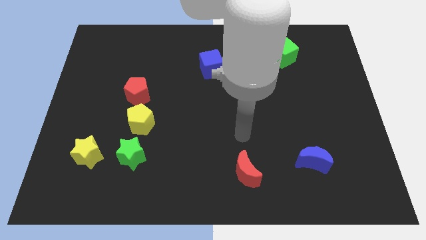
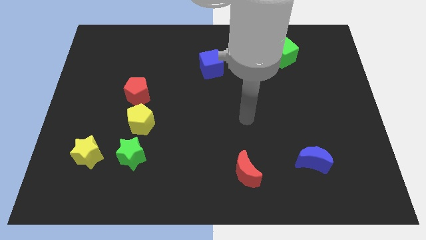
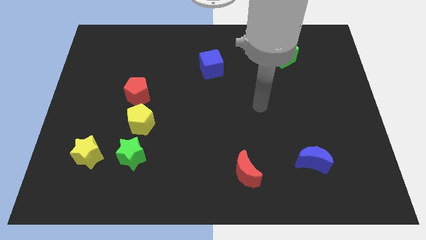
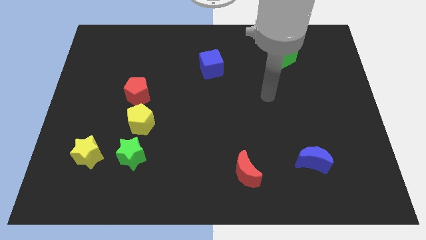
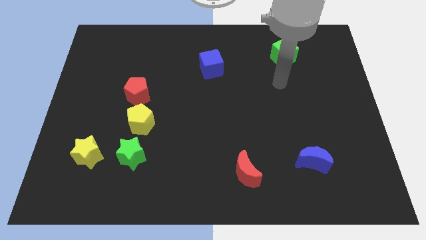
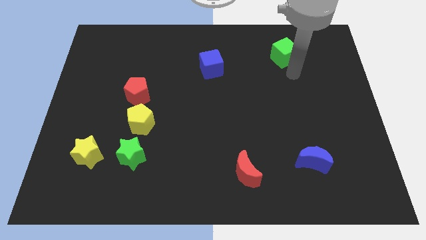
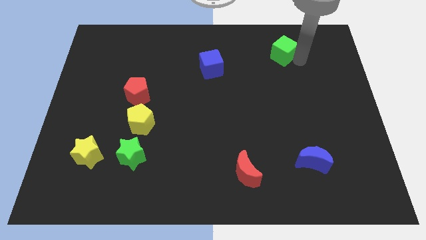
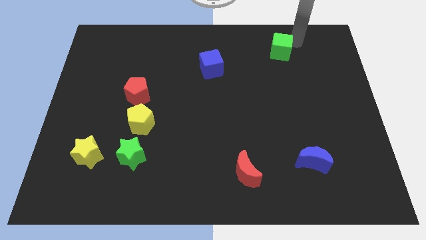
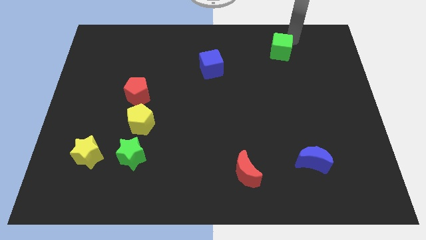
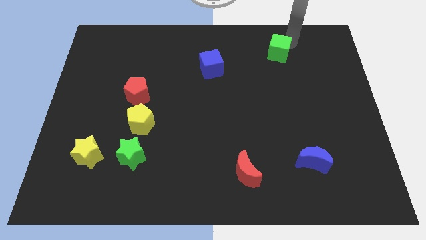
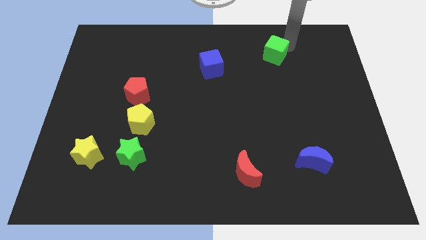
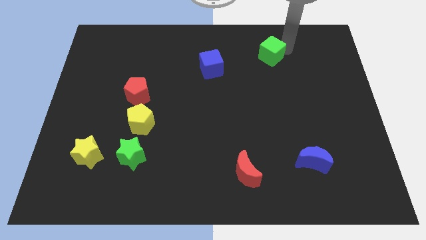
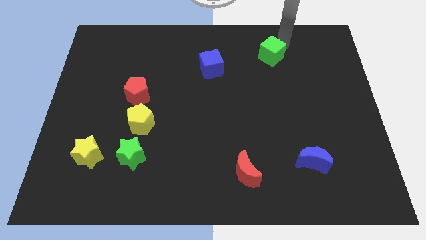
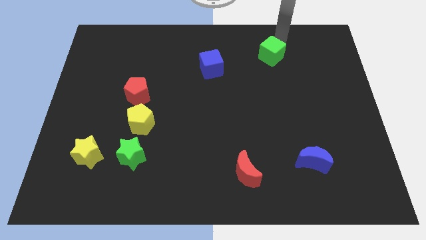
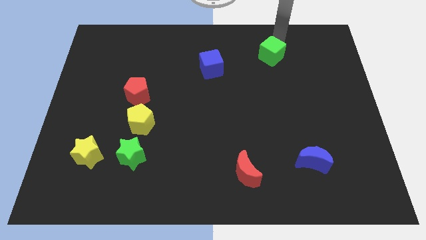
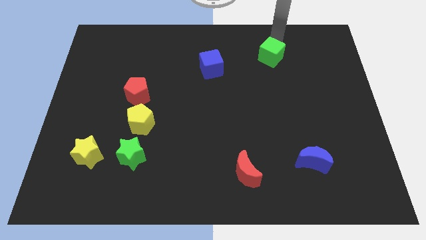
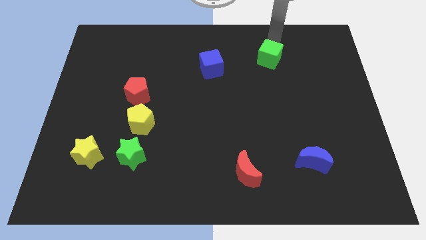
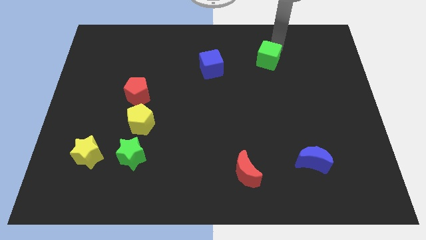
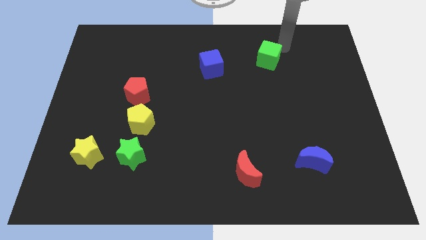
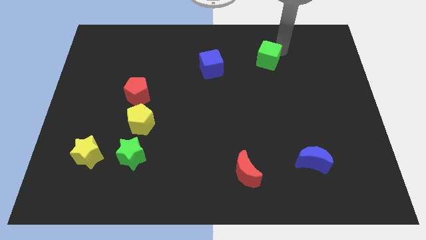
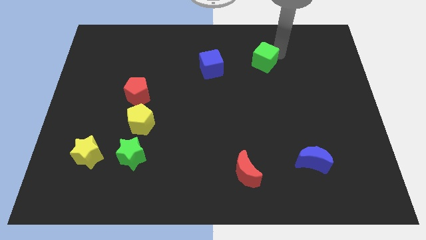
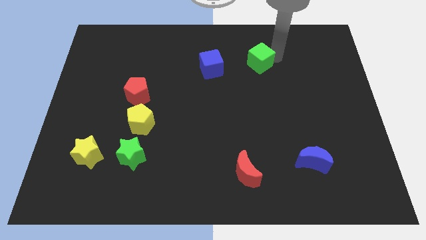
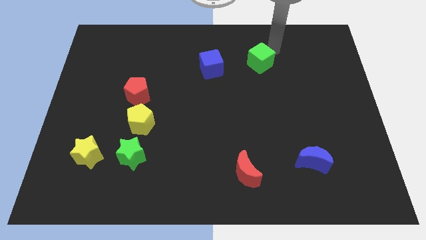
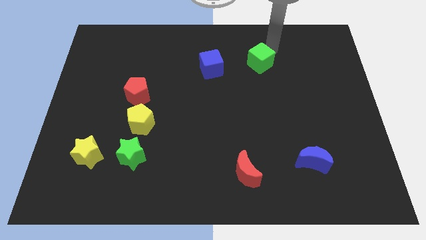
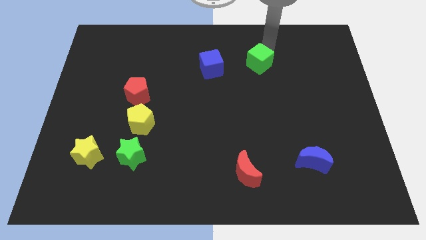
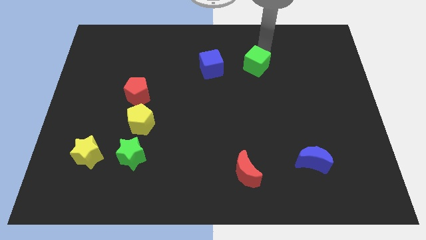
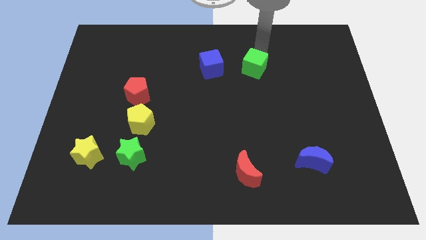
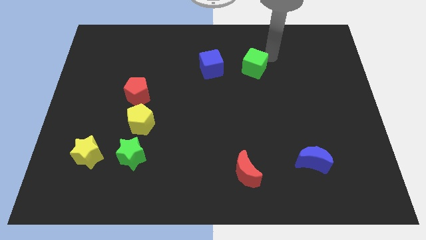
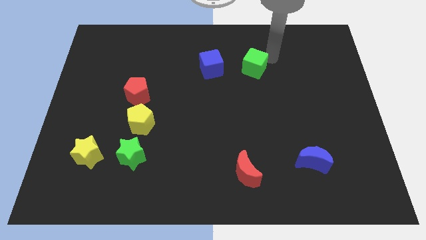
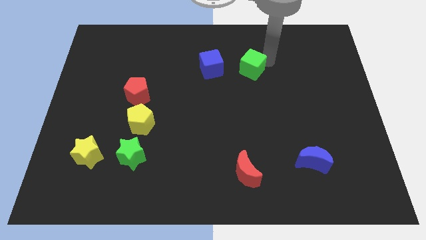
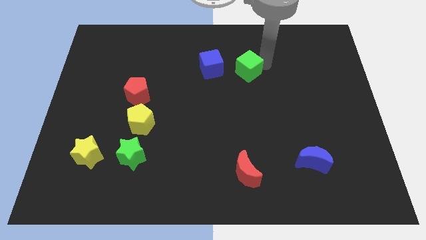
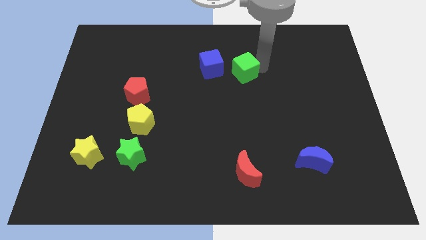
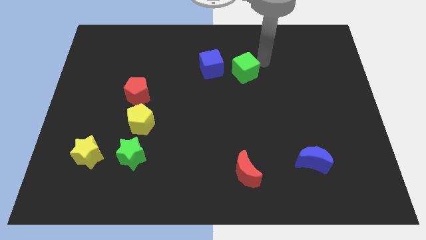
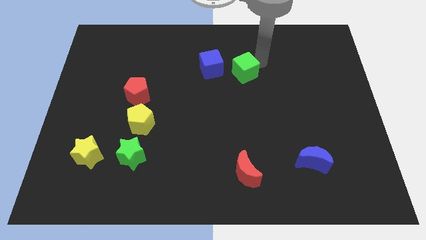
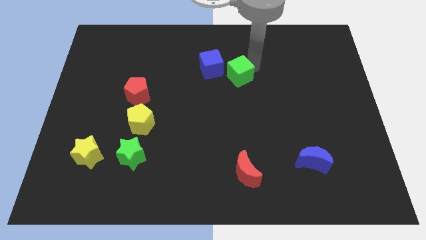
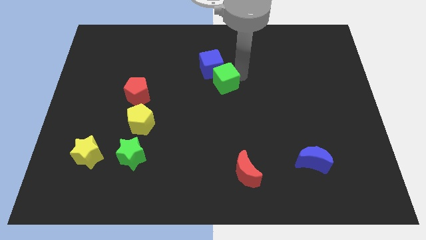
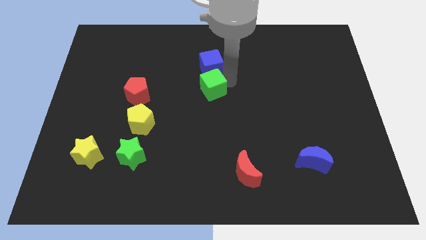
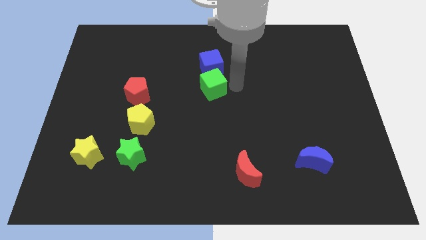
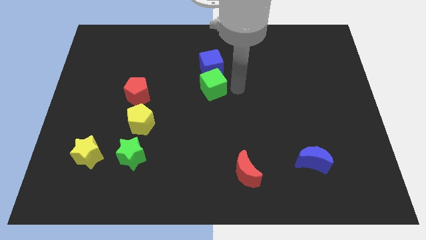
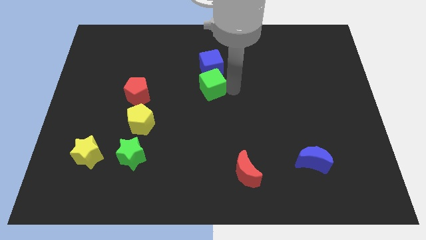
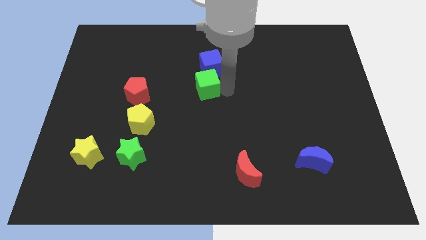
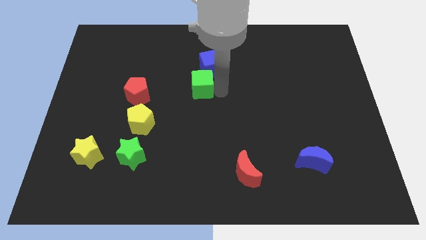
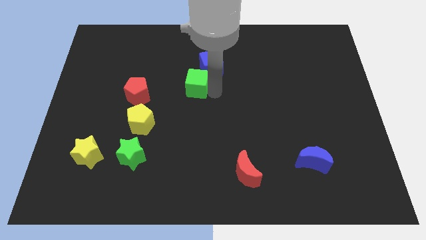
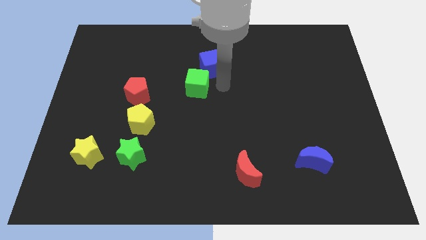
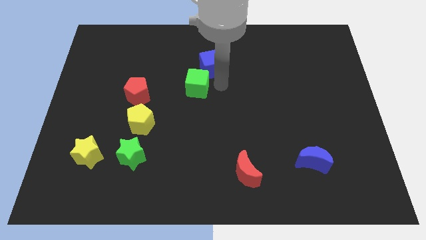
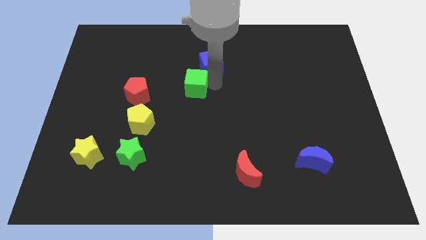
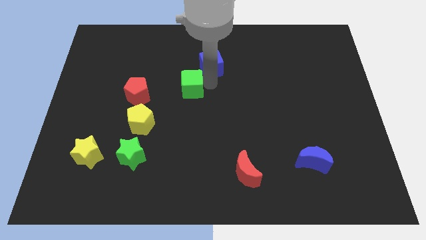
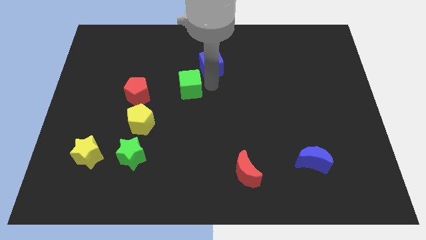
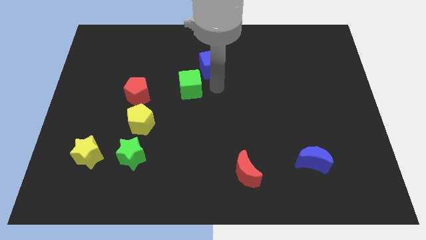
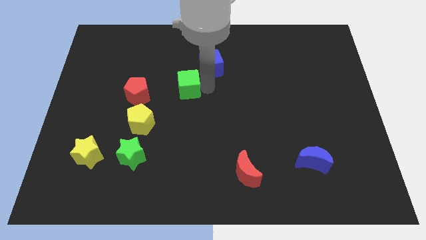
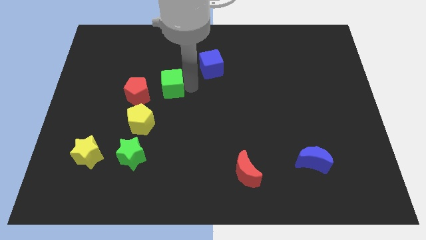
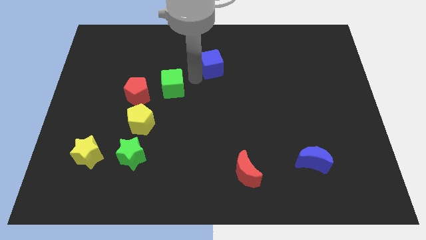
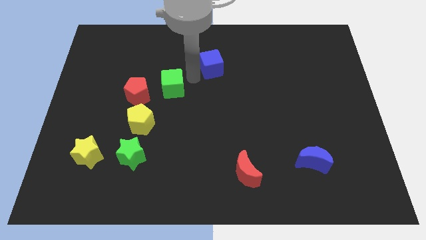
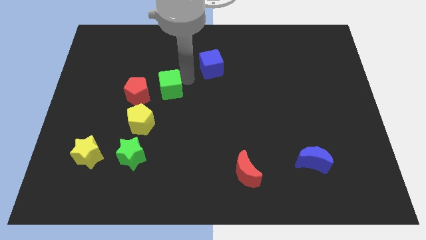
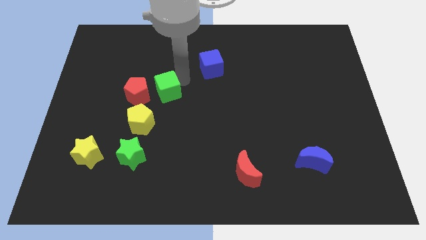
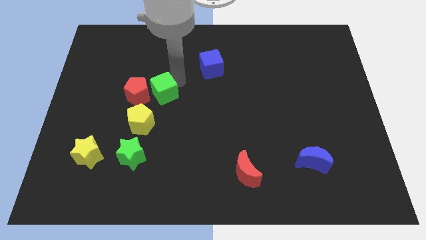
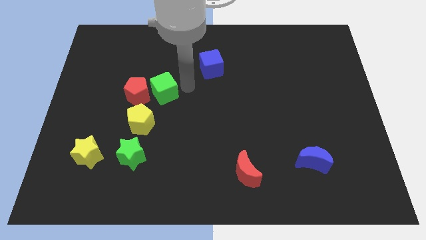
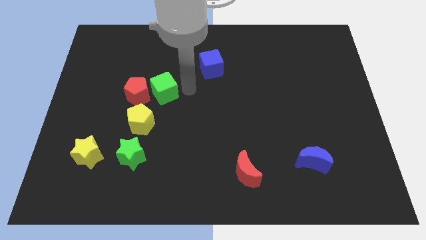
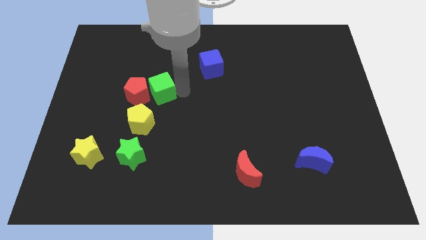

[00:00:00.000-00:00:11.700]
push the green cube next to the red pentagon

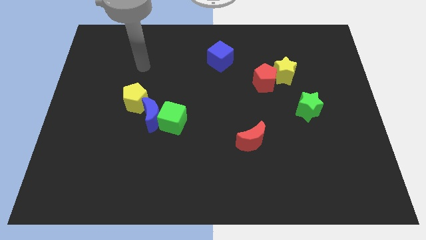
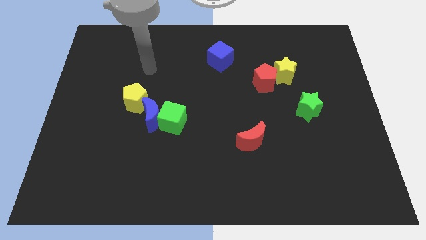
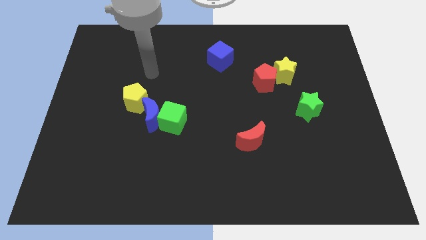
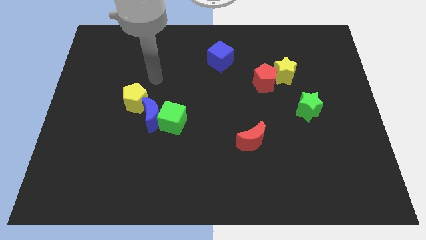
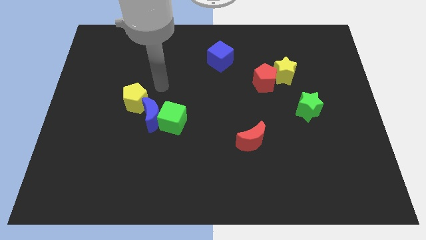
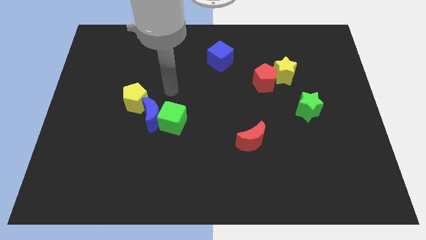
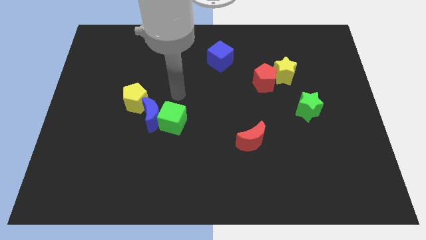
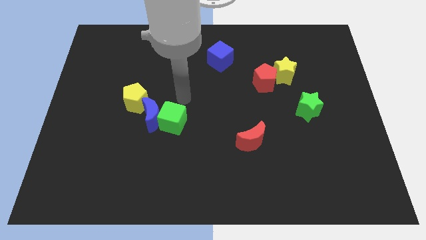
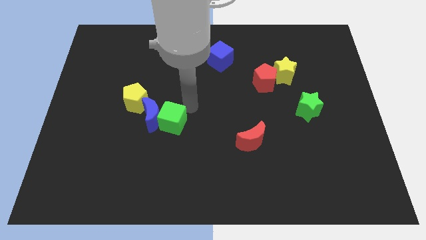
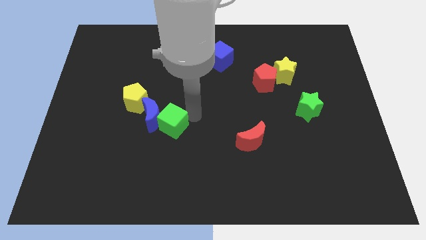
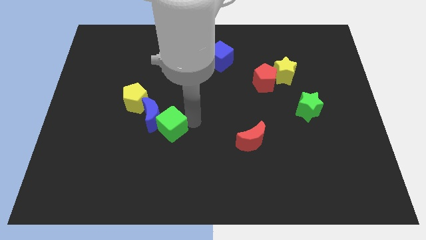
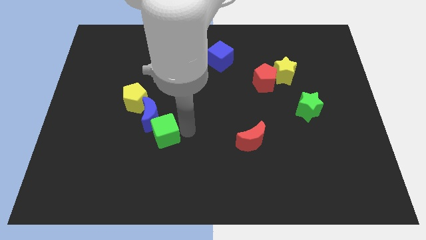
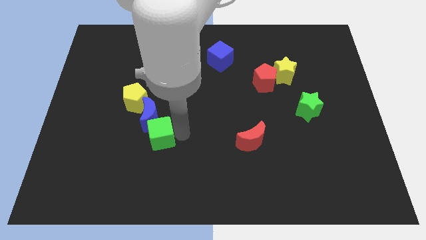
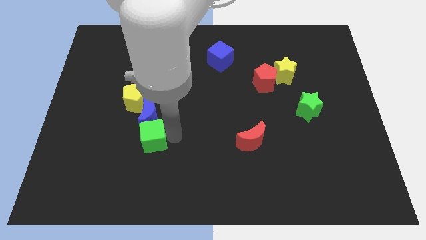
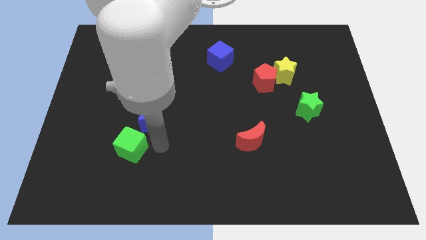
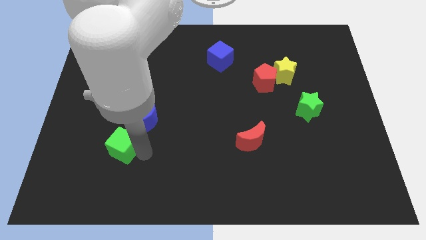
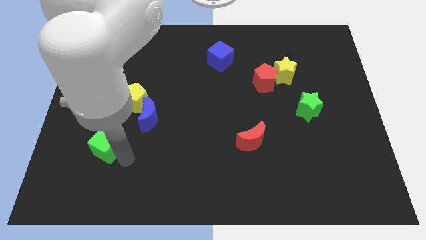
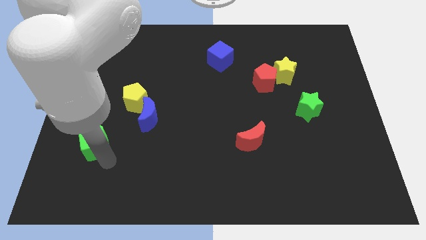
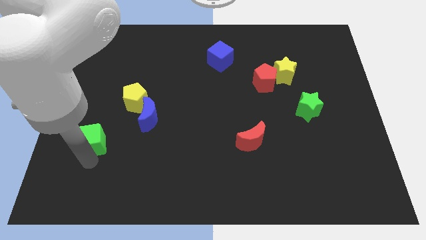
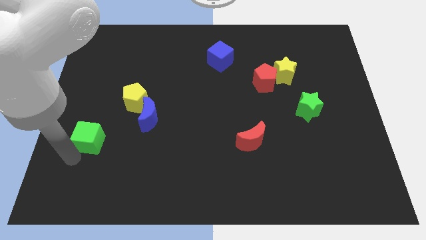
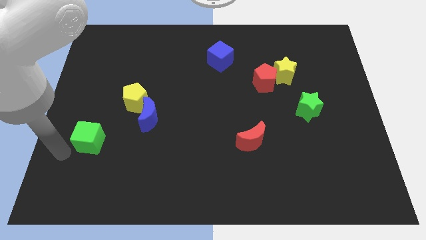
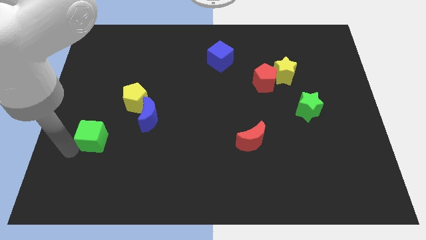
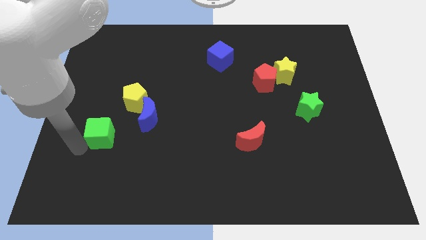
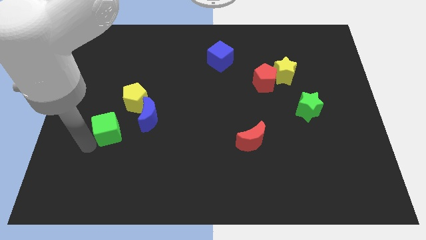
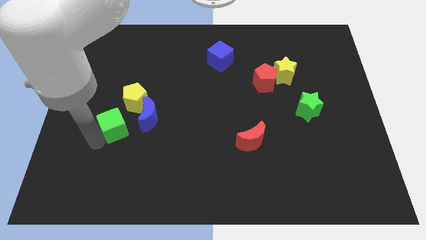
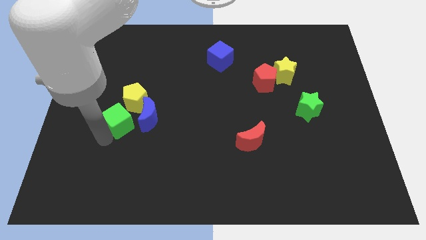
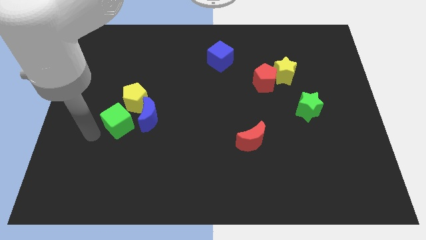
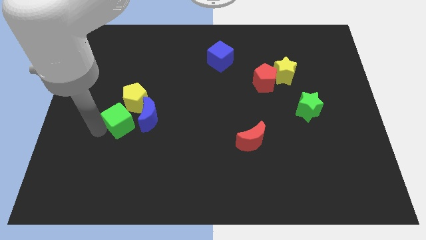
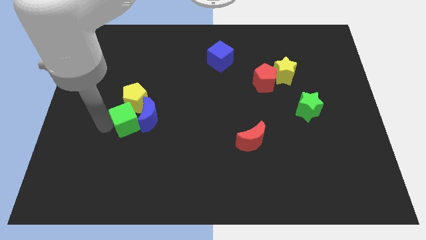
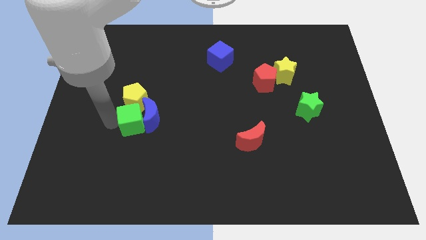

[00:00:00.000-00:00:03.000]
slide the green cube next to the yellow pentagon
